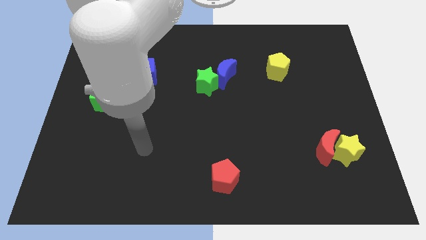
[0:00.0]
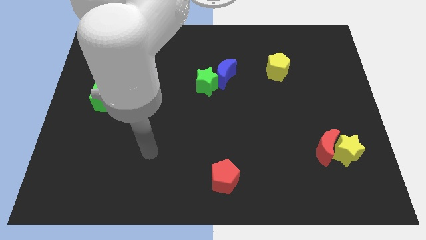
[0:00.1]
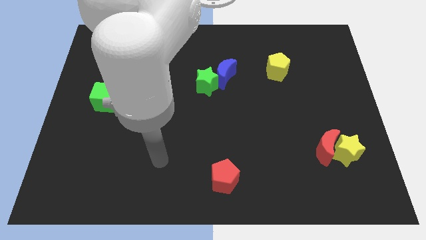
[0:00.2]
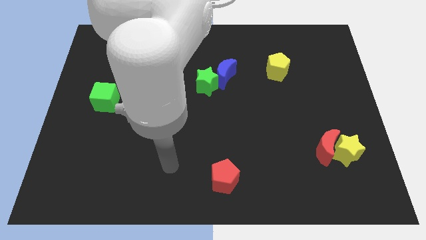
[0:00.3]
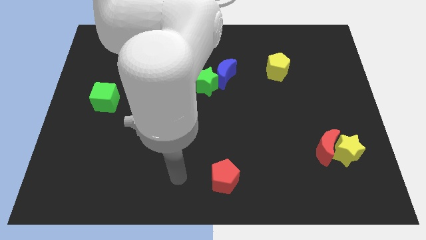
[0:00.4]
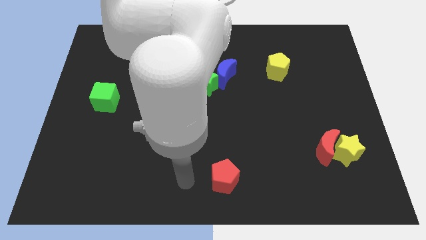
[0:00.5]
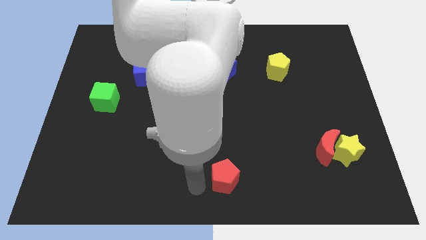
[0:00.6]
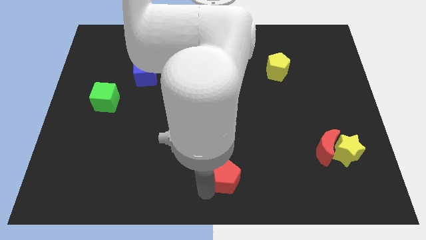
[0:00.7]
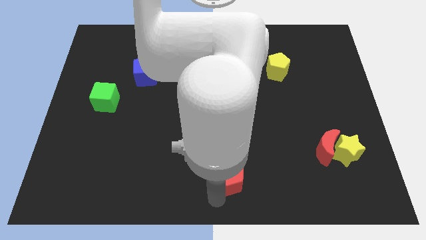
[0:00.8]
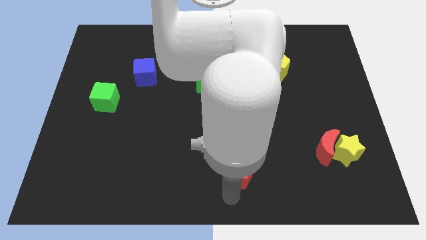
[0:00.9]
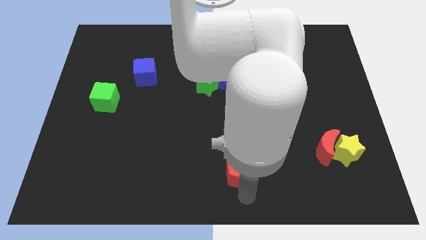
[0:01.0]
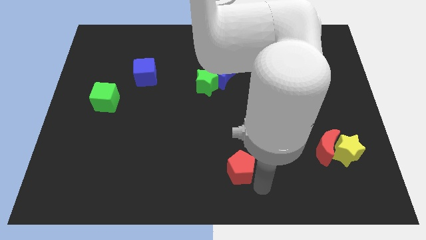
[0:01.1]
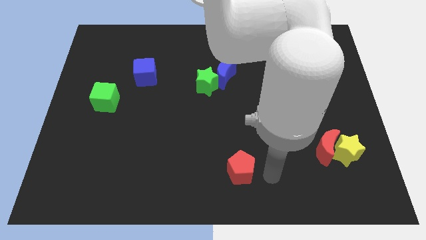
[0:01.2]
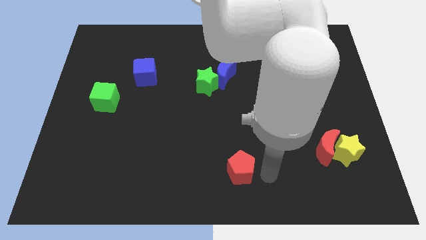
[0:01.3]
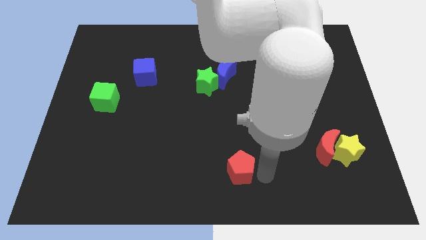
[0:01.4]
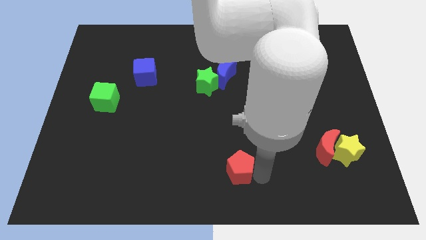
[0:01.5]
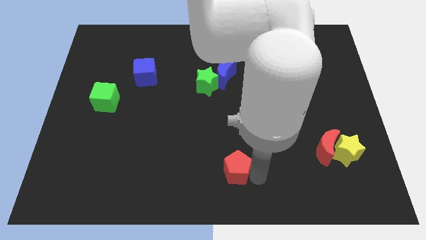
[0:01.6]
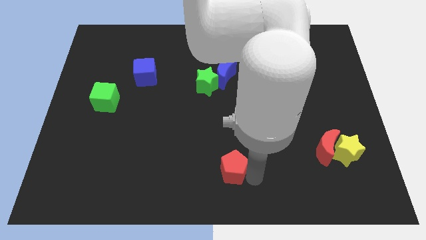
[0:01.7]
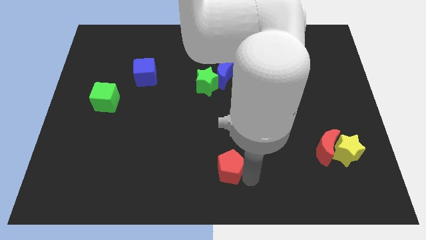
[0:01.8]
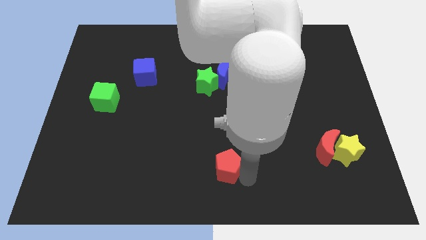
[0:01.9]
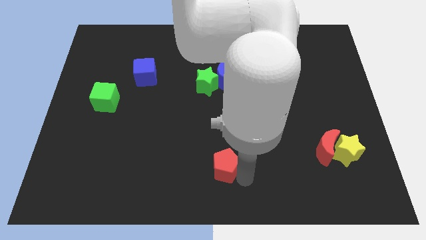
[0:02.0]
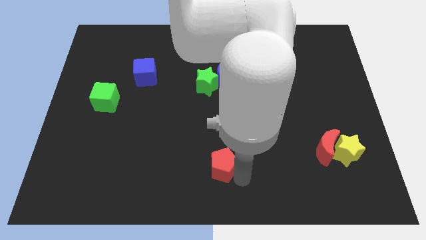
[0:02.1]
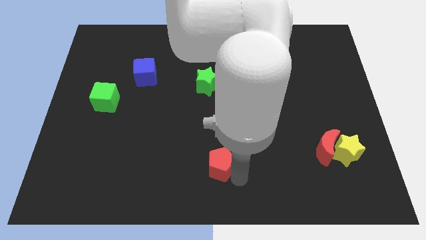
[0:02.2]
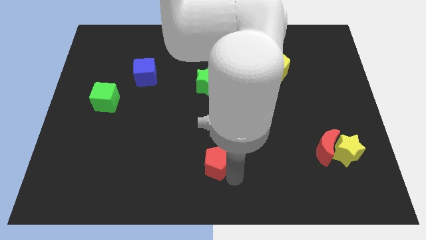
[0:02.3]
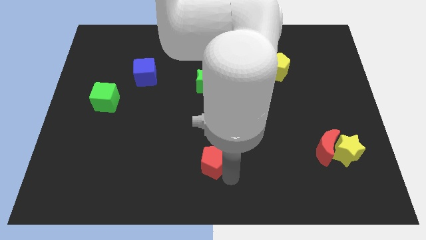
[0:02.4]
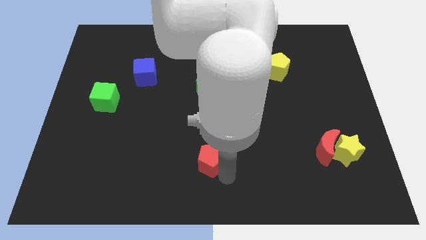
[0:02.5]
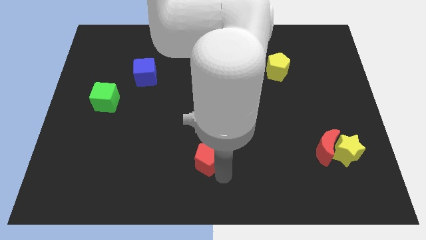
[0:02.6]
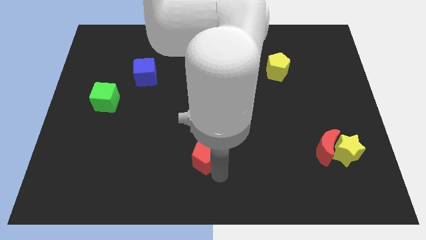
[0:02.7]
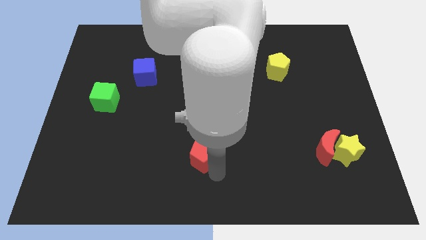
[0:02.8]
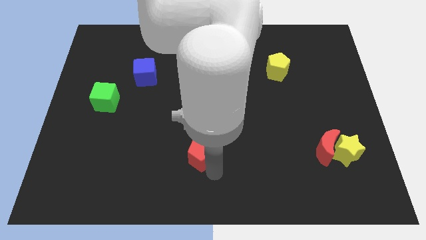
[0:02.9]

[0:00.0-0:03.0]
push the red pentagon a little bit upwards and then to the left

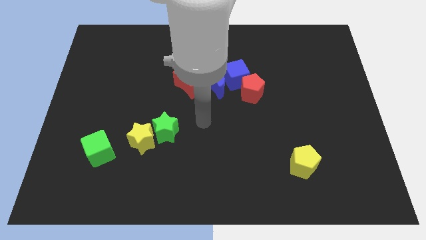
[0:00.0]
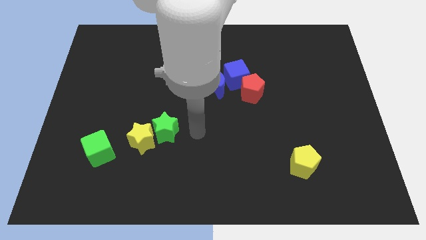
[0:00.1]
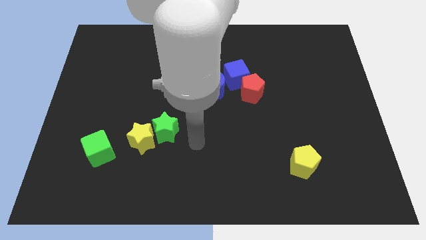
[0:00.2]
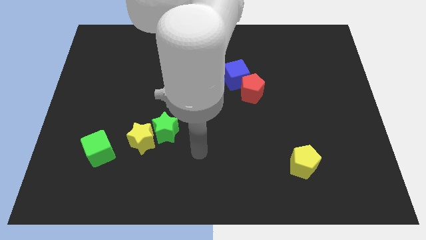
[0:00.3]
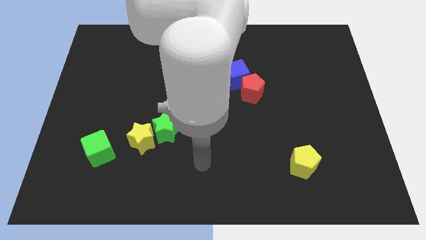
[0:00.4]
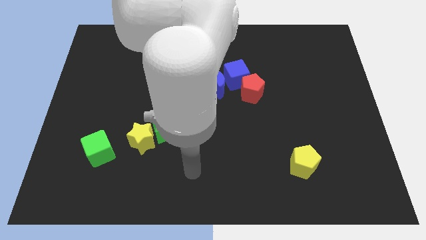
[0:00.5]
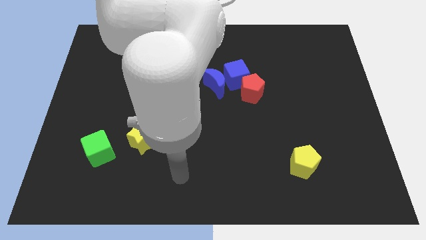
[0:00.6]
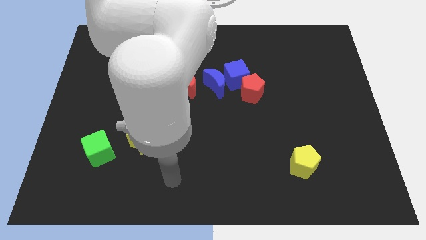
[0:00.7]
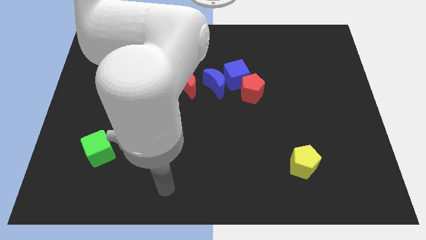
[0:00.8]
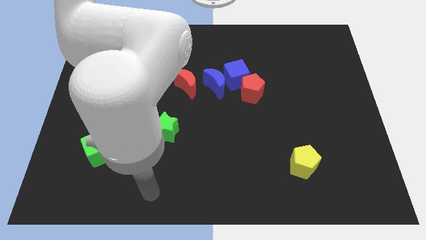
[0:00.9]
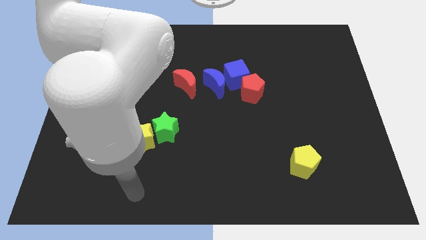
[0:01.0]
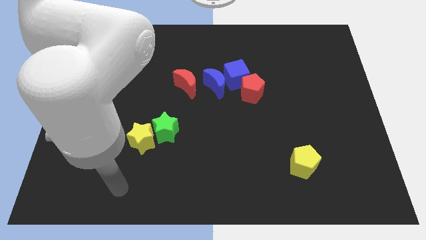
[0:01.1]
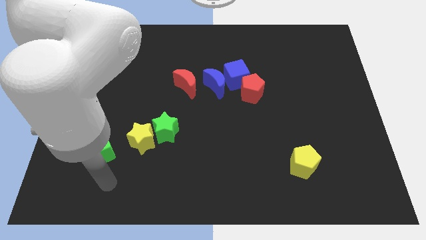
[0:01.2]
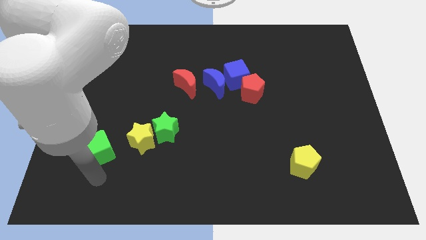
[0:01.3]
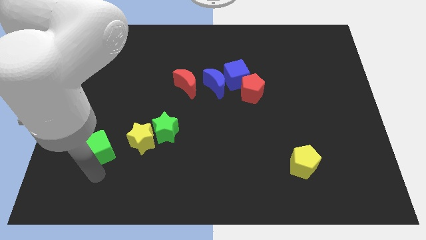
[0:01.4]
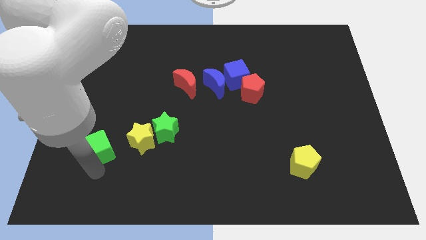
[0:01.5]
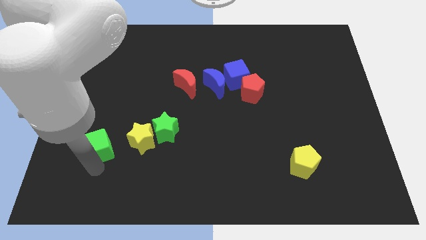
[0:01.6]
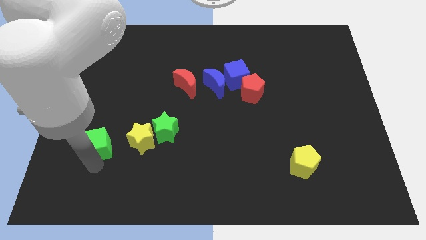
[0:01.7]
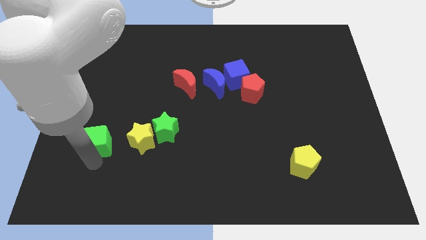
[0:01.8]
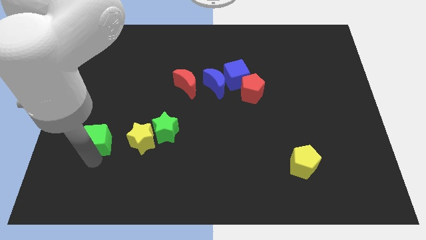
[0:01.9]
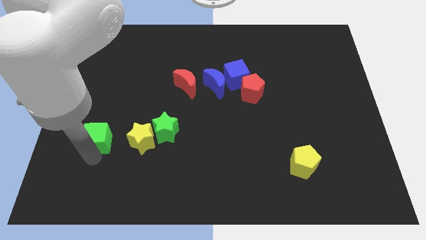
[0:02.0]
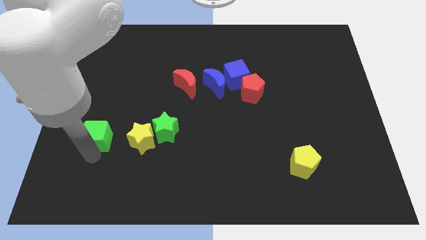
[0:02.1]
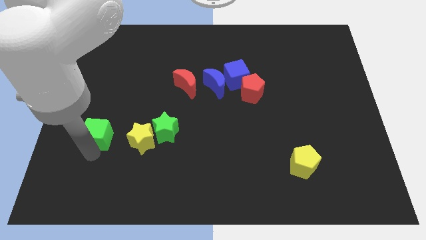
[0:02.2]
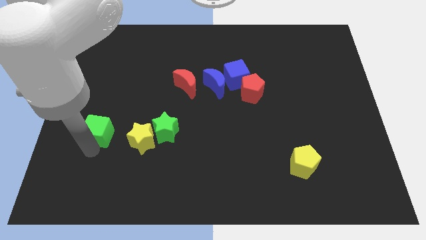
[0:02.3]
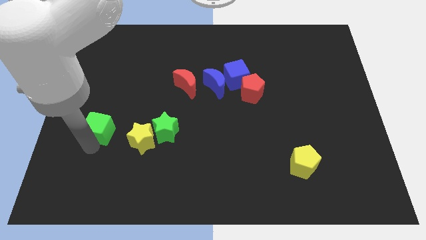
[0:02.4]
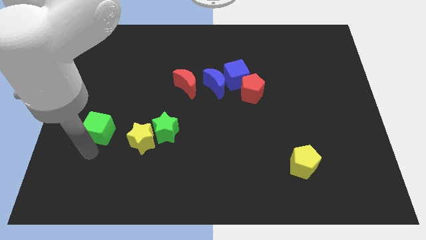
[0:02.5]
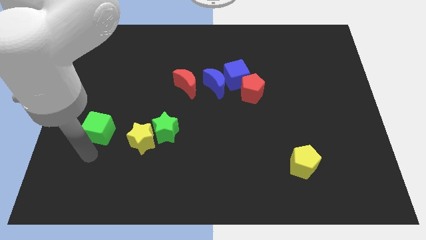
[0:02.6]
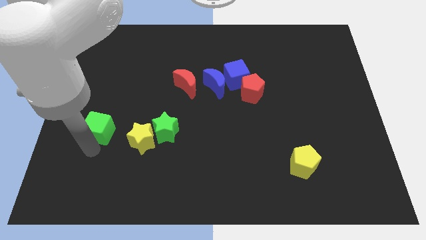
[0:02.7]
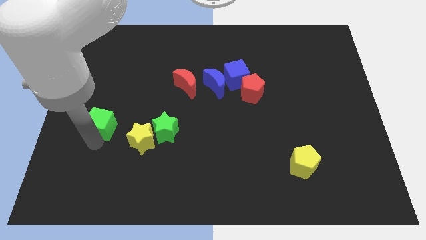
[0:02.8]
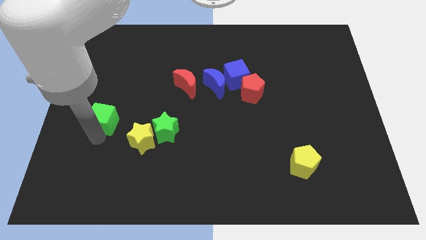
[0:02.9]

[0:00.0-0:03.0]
move the green cube upwards a bit

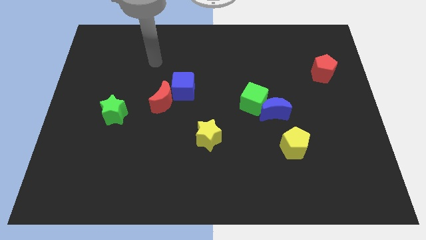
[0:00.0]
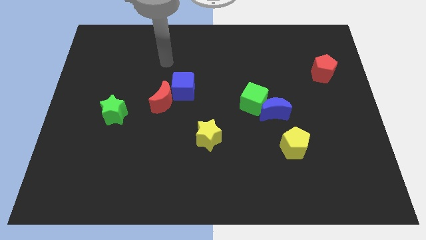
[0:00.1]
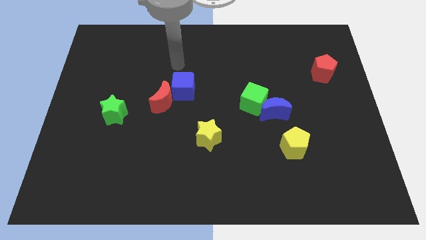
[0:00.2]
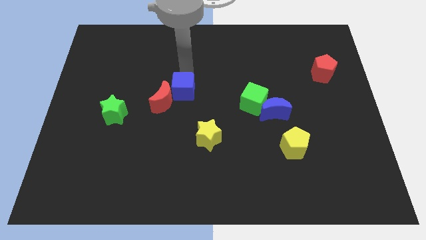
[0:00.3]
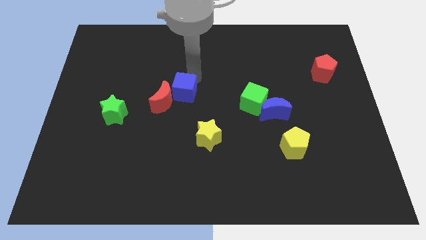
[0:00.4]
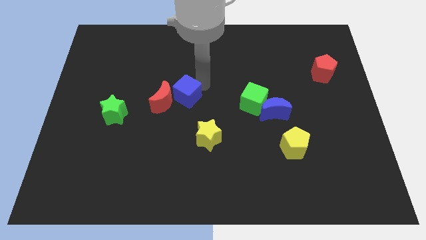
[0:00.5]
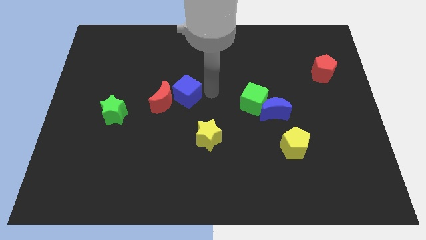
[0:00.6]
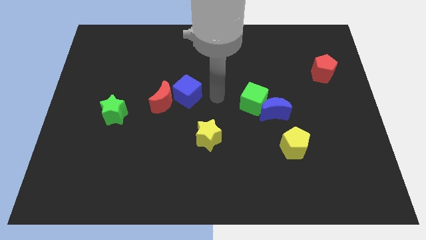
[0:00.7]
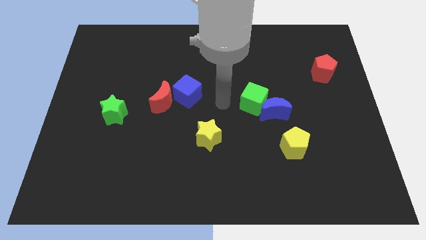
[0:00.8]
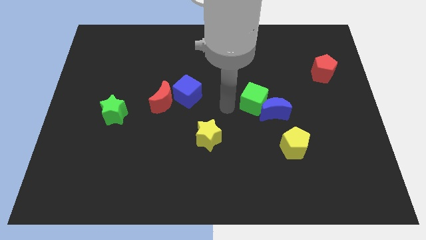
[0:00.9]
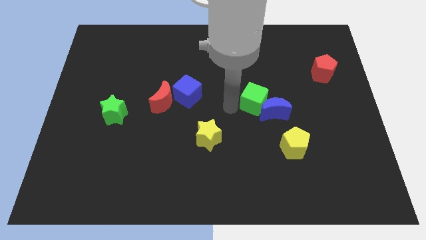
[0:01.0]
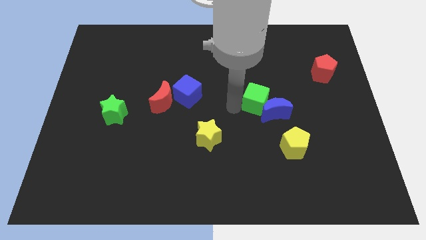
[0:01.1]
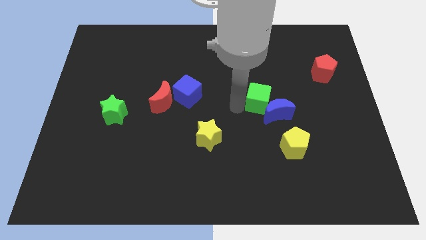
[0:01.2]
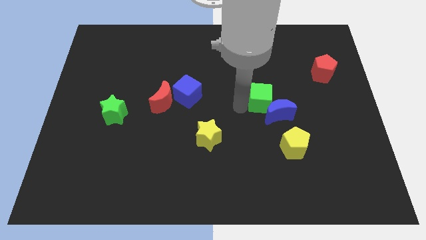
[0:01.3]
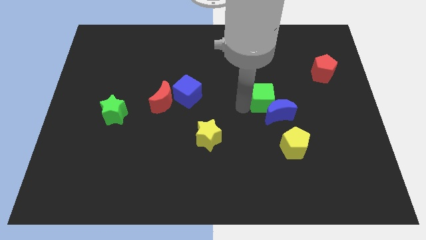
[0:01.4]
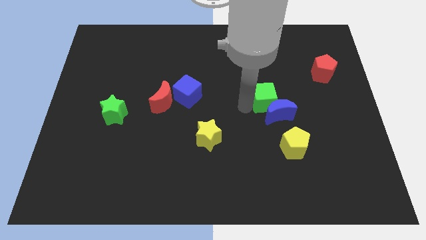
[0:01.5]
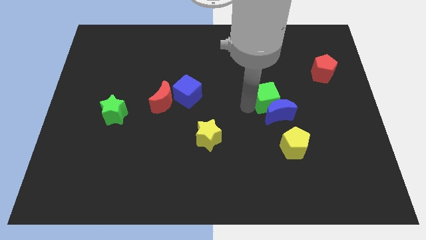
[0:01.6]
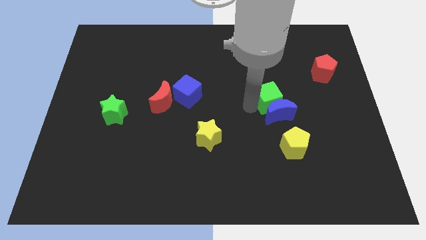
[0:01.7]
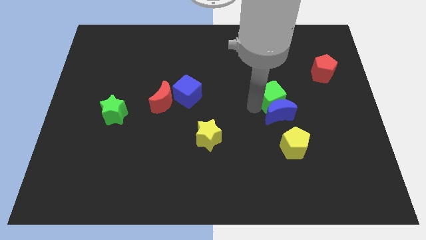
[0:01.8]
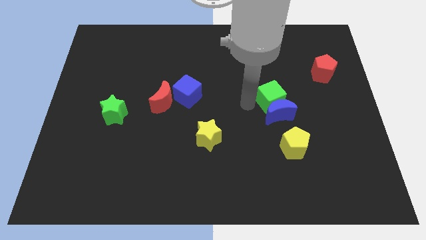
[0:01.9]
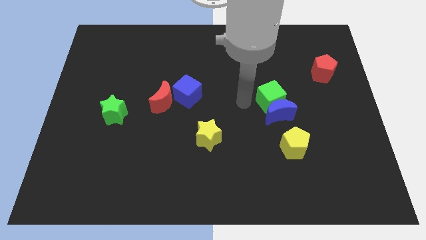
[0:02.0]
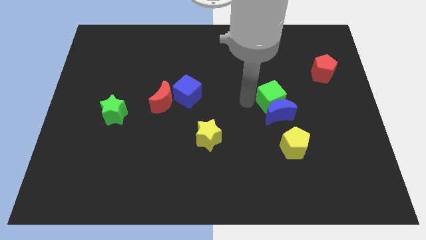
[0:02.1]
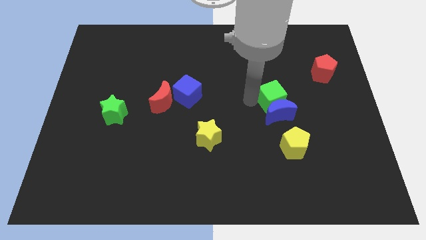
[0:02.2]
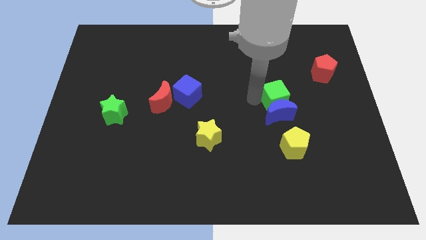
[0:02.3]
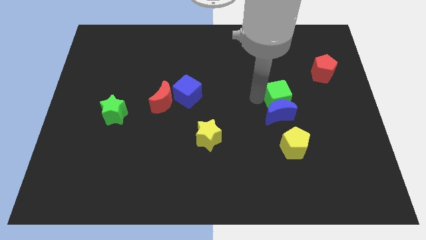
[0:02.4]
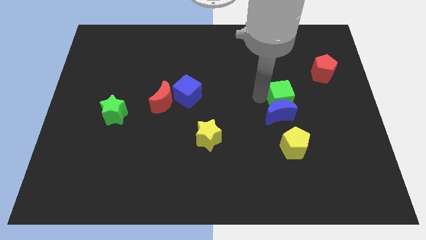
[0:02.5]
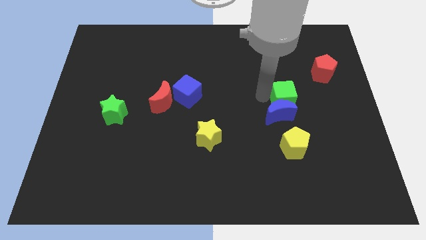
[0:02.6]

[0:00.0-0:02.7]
slide the green cube to the right a little
